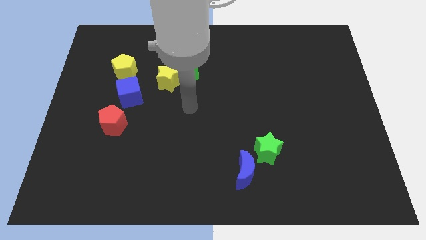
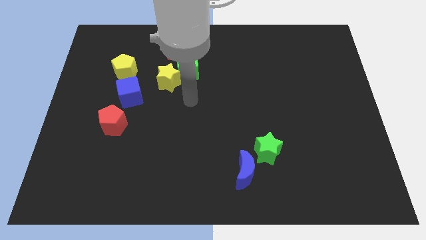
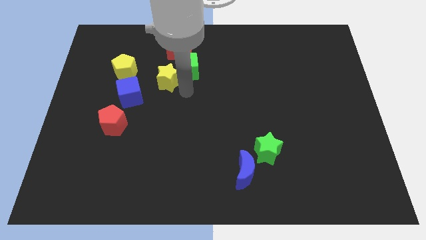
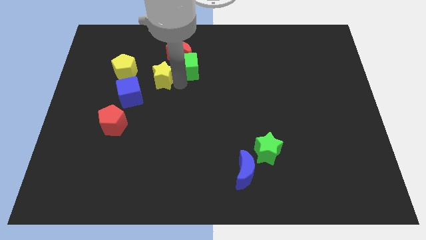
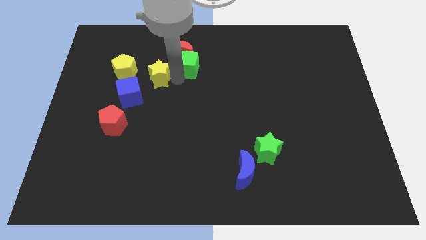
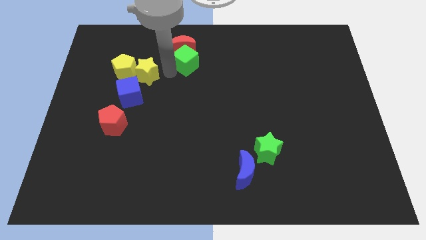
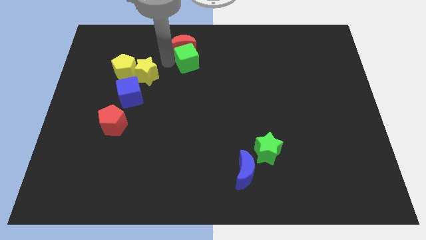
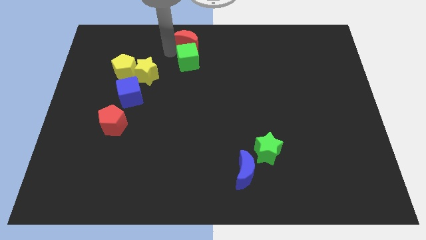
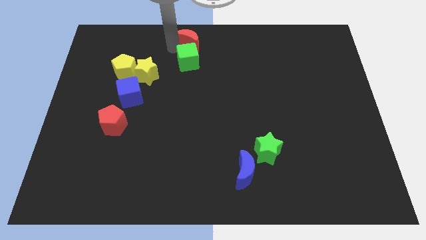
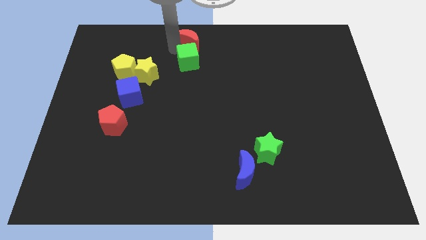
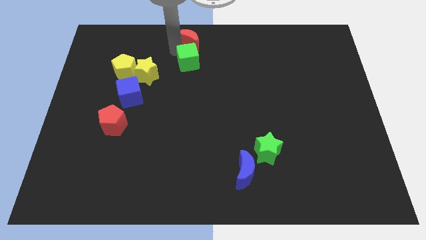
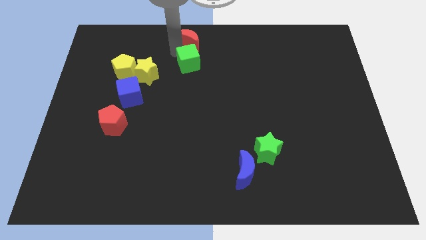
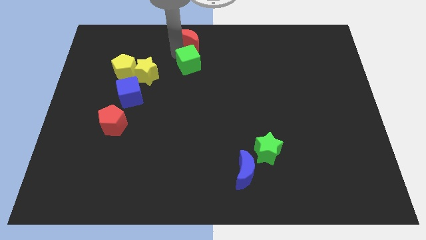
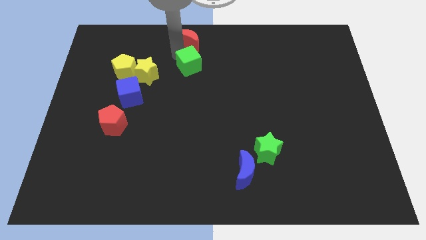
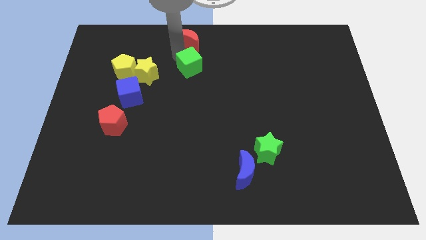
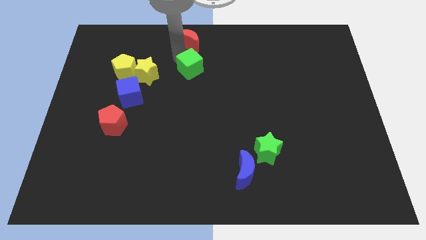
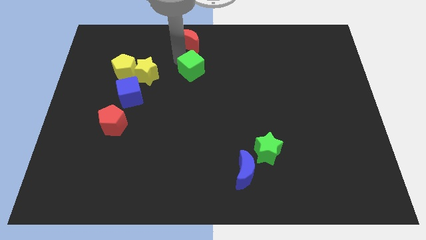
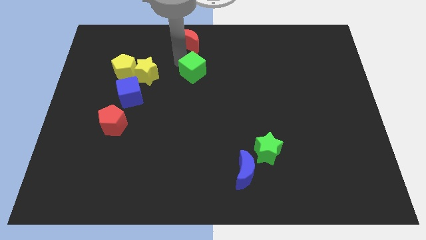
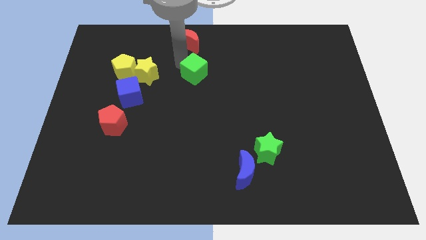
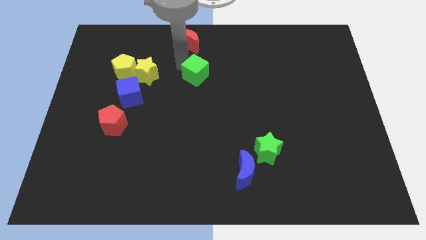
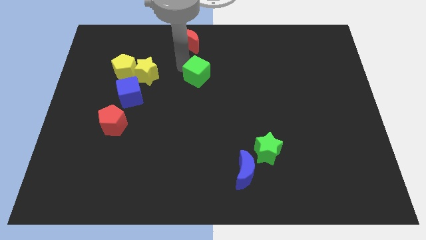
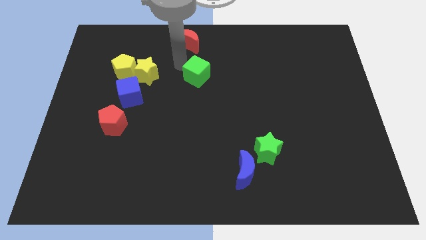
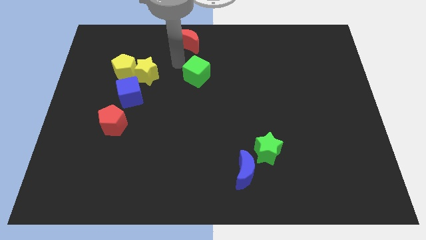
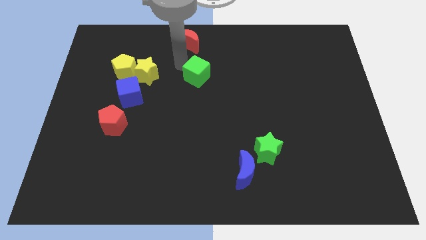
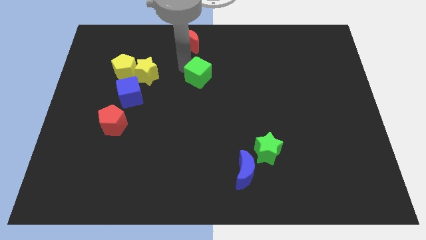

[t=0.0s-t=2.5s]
move the green cube away from the red moon and yellow star

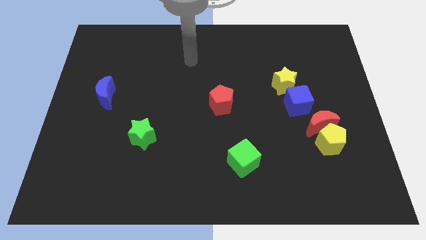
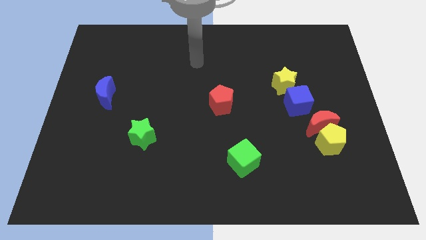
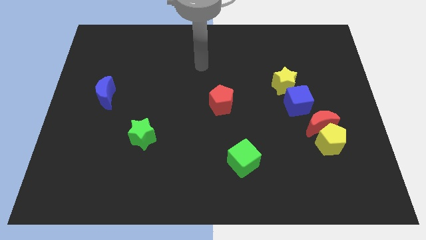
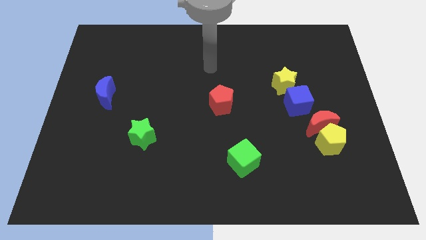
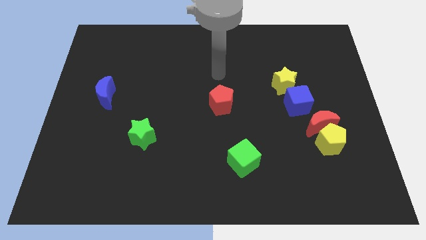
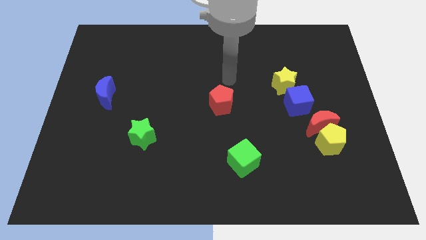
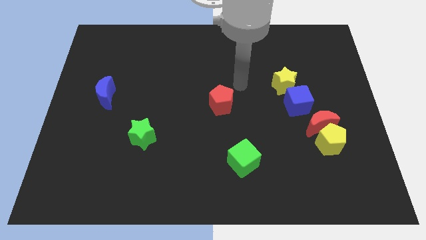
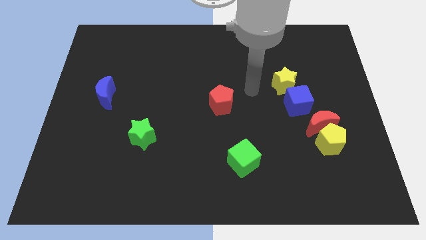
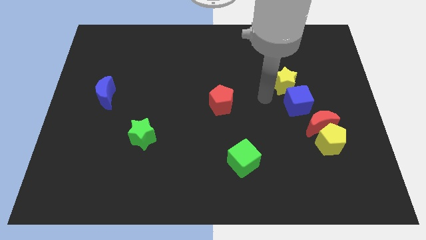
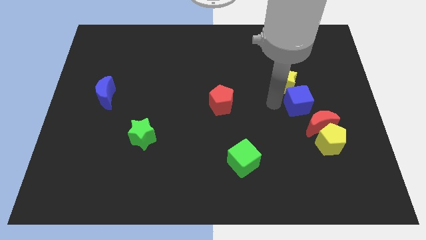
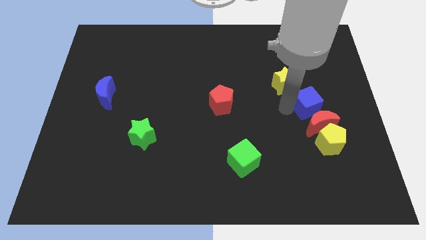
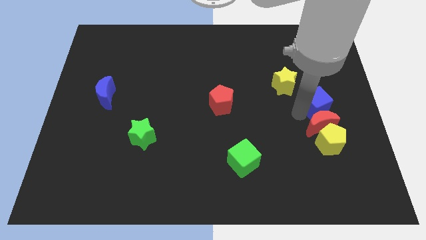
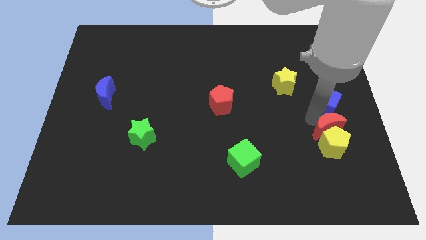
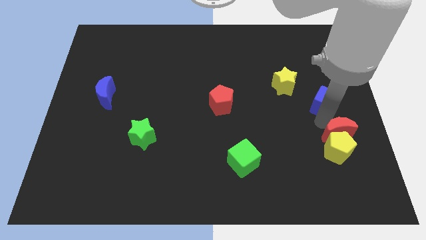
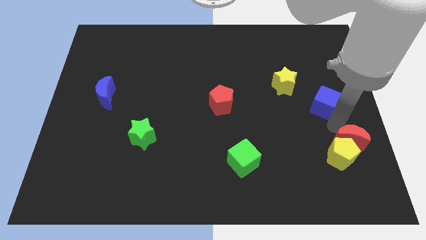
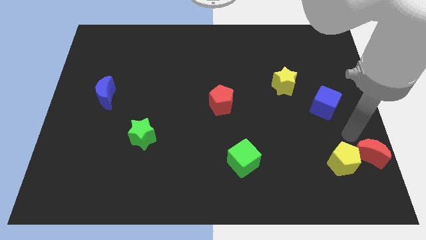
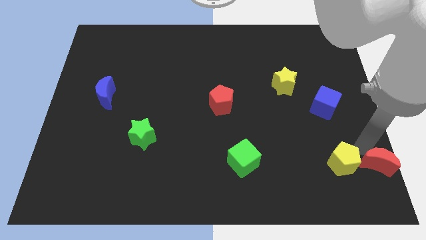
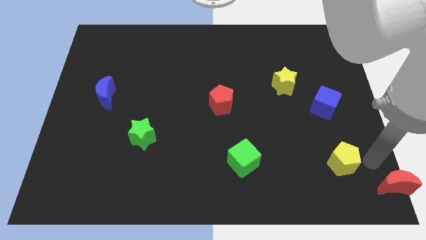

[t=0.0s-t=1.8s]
move the yellow pentagon away from the red moon

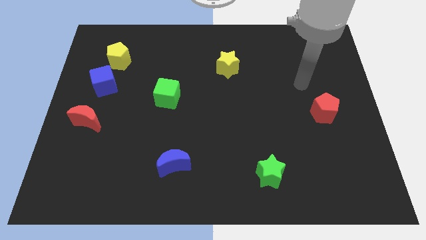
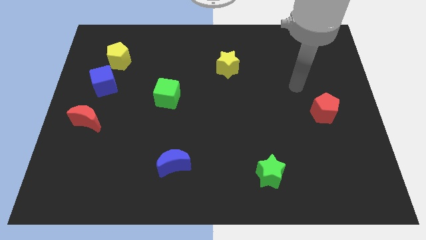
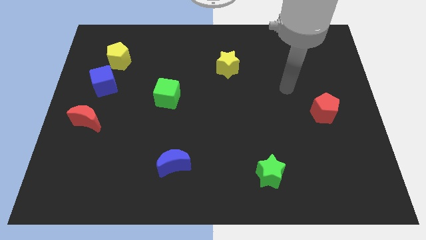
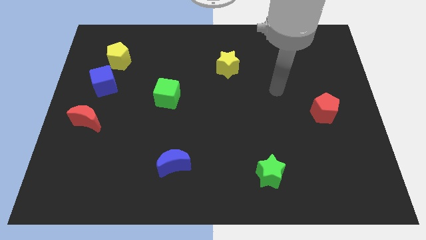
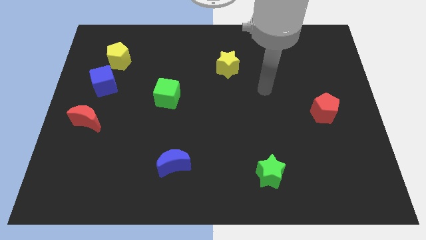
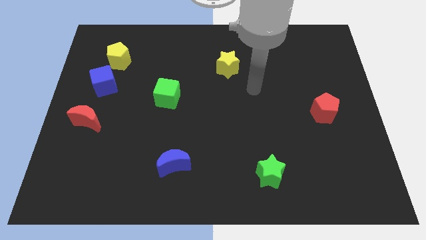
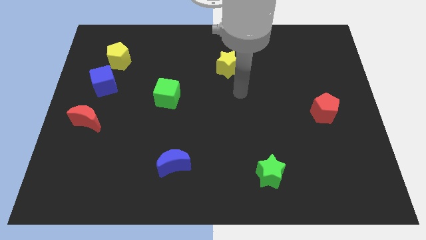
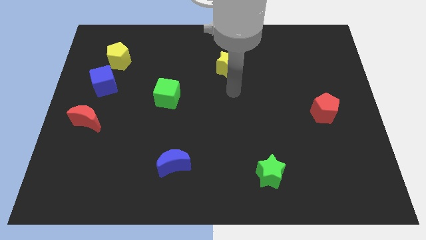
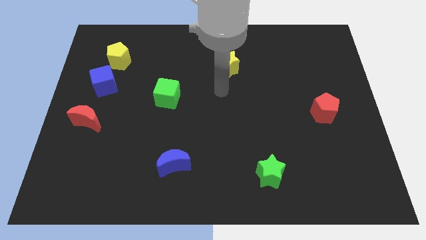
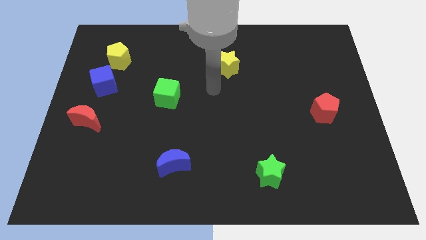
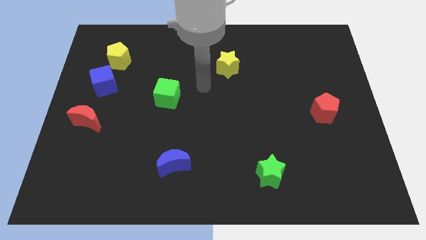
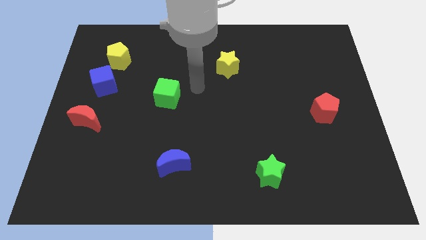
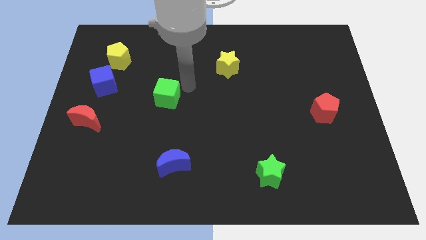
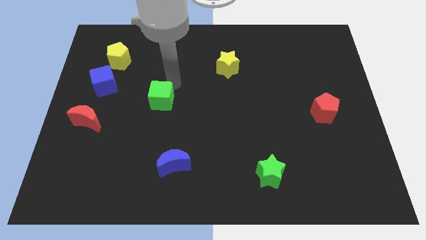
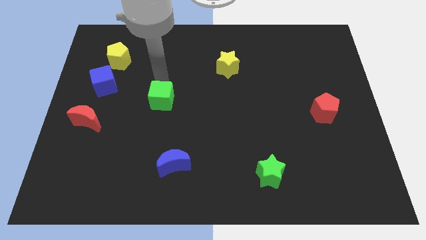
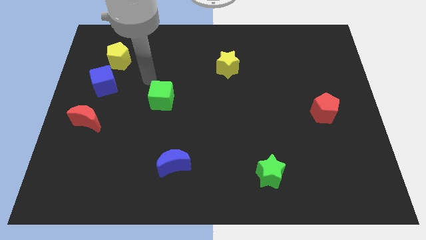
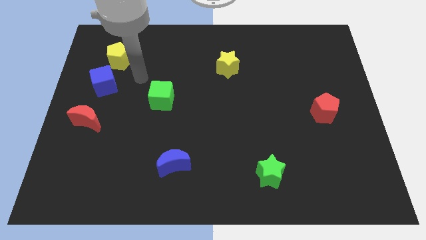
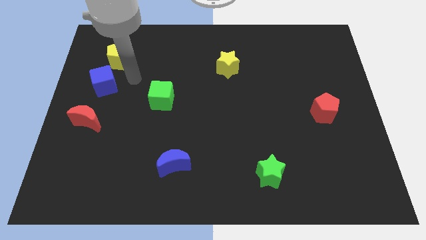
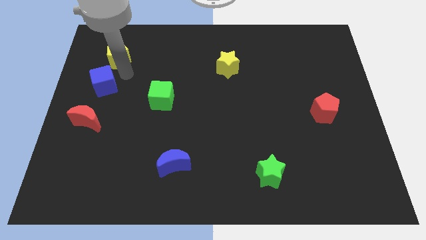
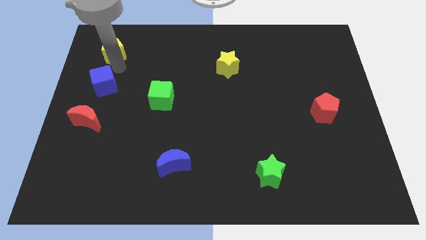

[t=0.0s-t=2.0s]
pull the blue cube apart from the yellow pentagon

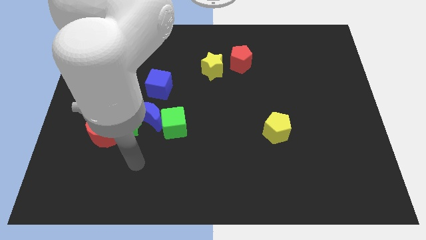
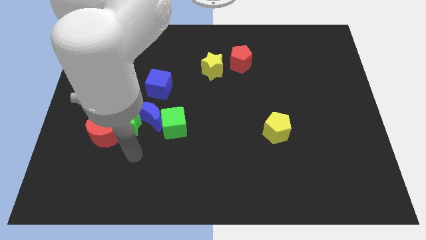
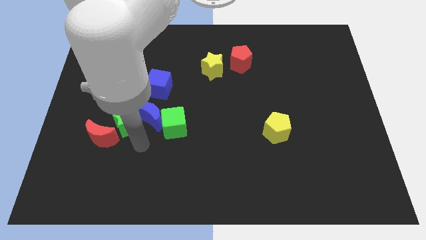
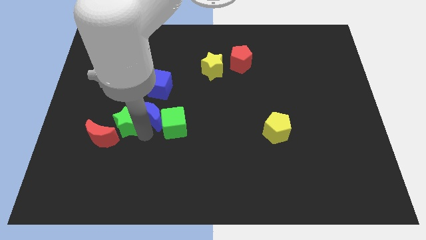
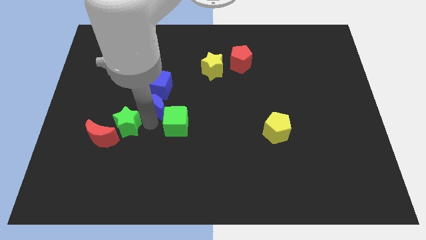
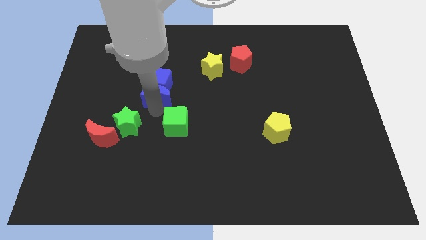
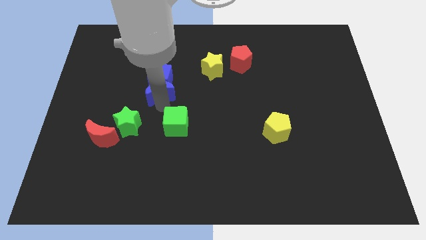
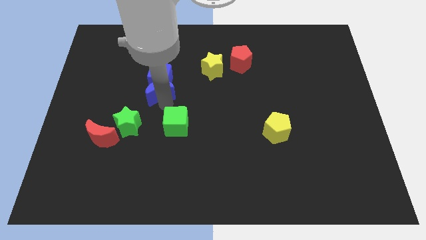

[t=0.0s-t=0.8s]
move the green cube away from the blue moon

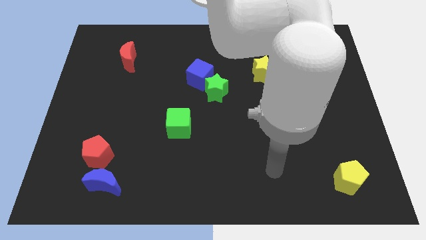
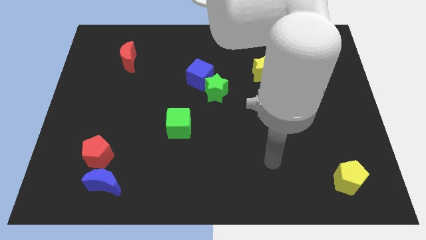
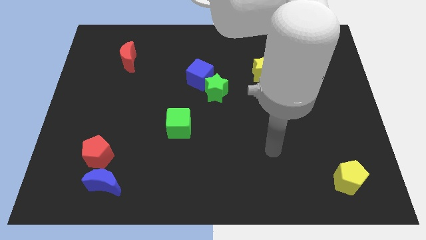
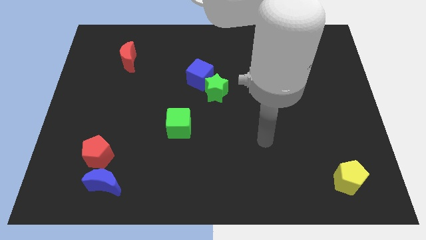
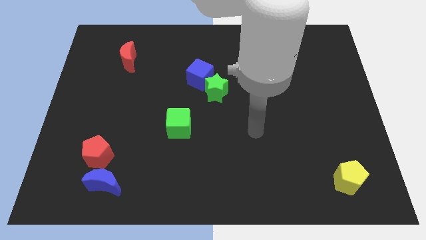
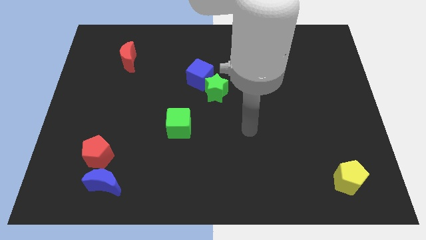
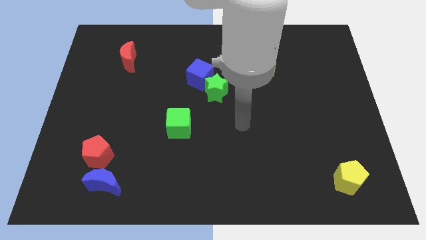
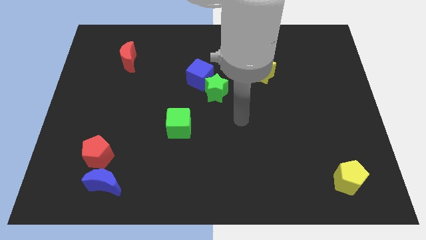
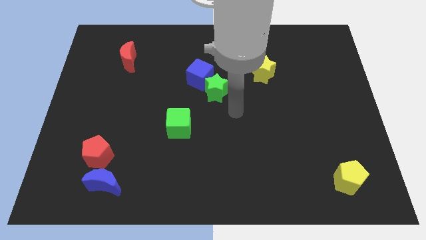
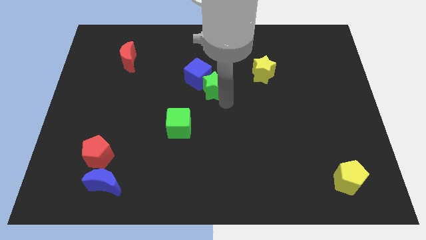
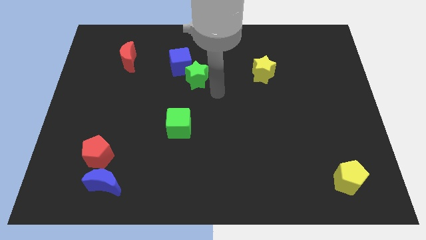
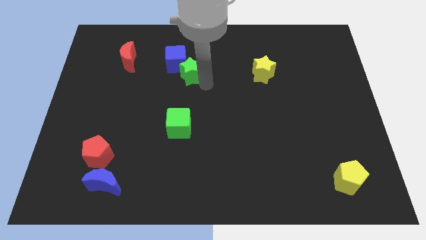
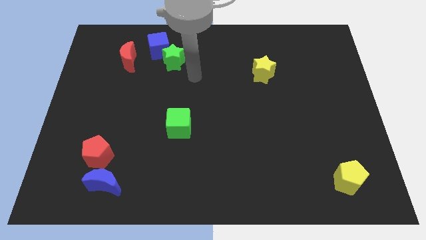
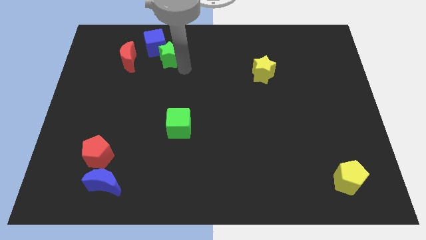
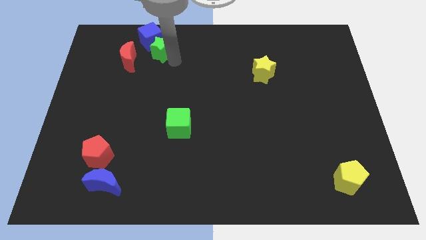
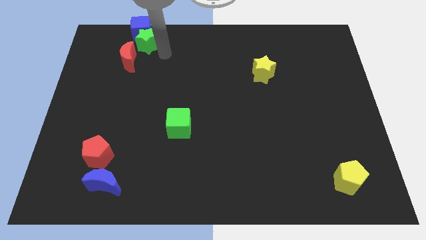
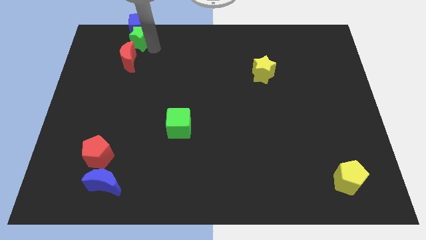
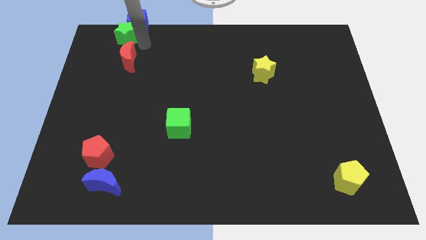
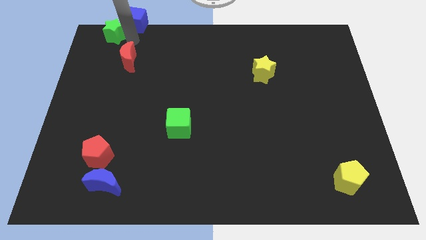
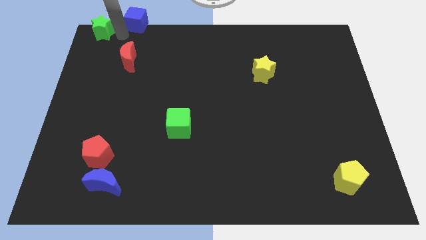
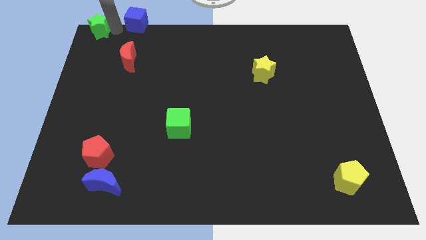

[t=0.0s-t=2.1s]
move the blue cube away from the green star
